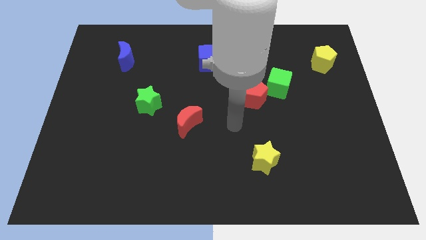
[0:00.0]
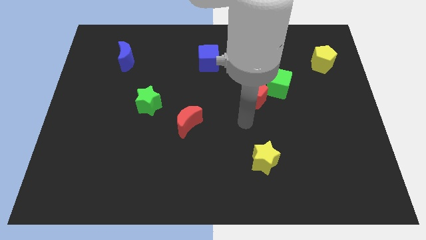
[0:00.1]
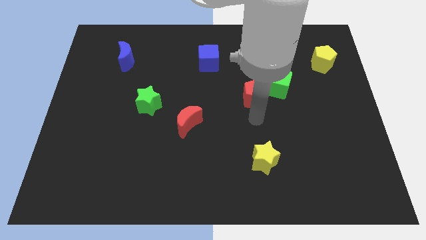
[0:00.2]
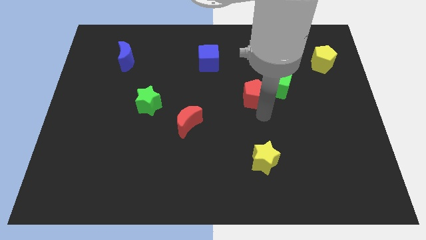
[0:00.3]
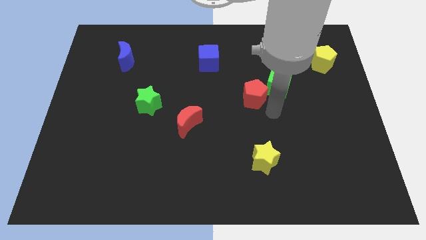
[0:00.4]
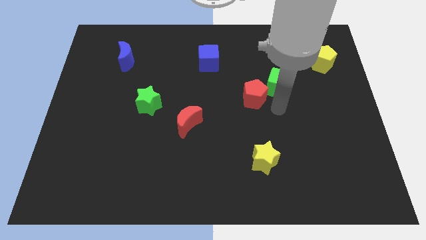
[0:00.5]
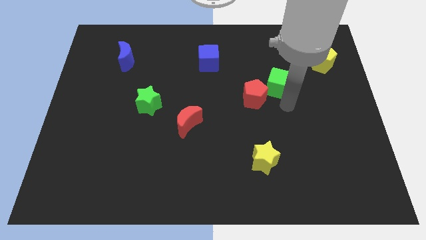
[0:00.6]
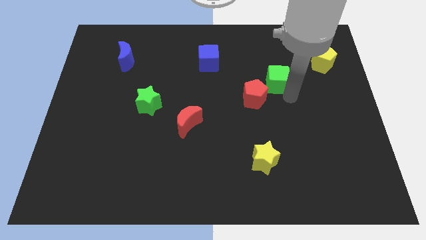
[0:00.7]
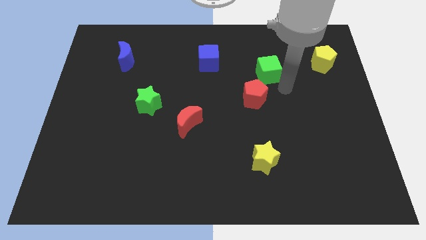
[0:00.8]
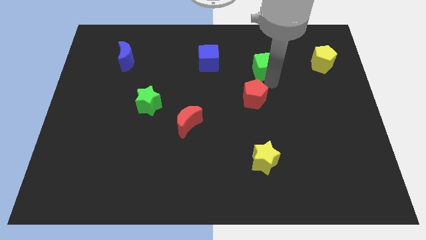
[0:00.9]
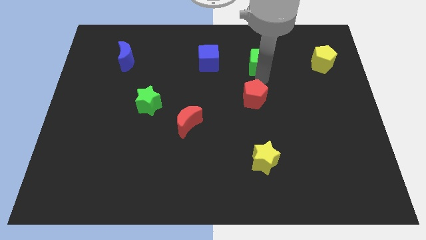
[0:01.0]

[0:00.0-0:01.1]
pull the red pentagon apart from the green cube

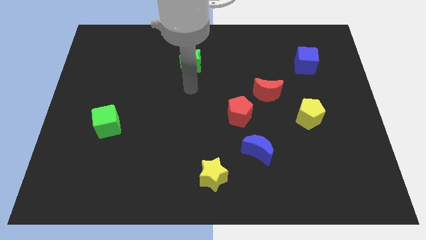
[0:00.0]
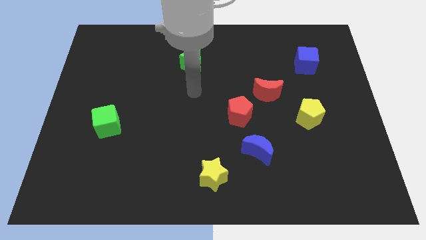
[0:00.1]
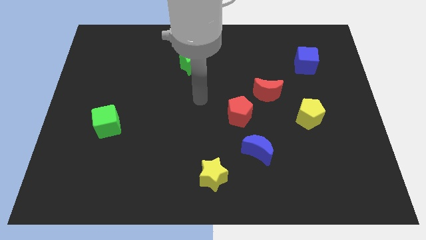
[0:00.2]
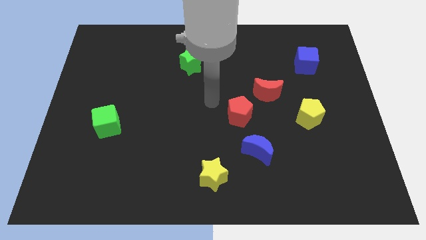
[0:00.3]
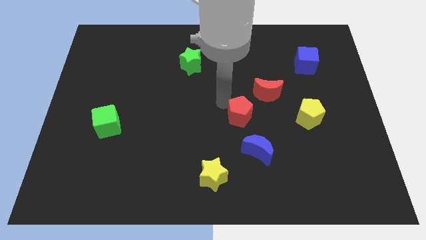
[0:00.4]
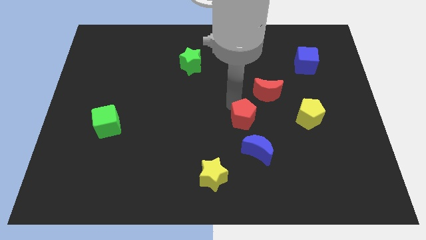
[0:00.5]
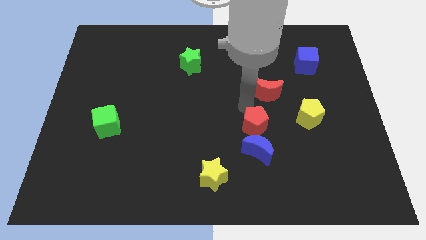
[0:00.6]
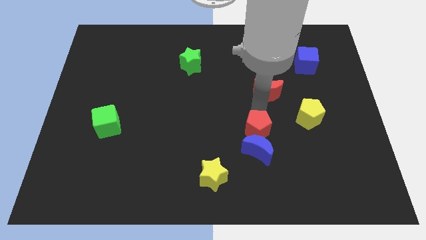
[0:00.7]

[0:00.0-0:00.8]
pull the red moon apart from the red pentagon

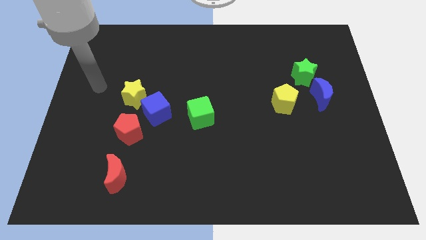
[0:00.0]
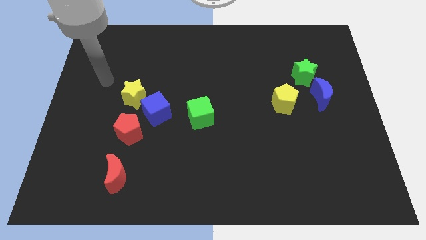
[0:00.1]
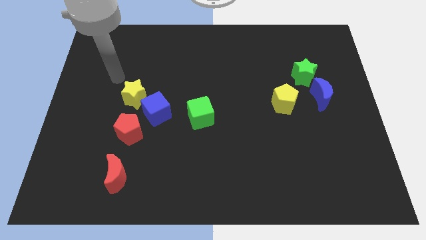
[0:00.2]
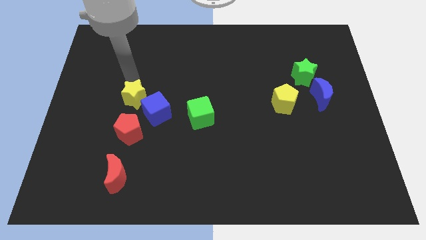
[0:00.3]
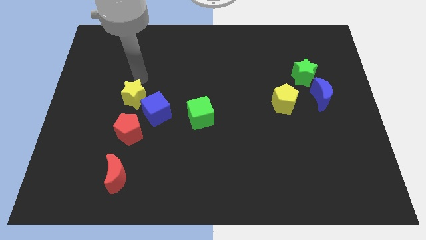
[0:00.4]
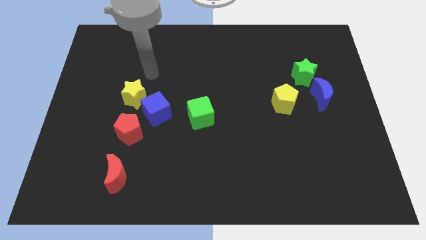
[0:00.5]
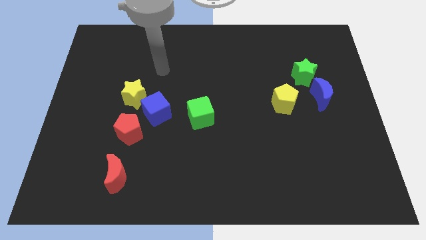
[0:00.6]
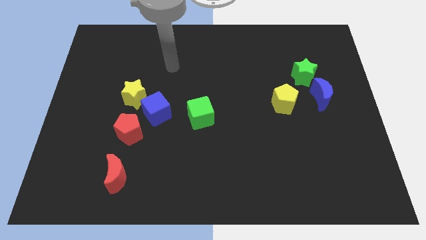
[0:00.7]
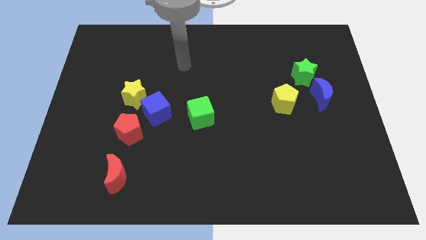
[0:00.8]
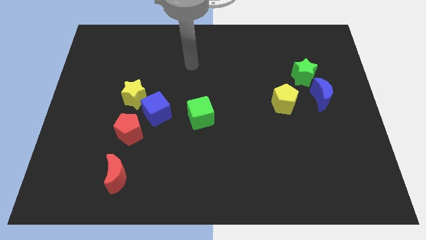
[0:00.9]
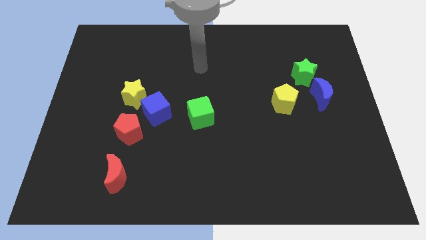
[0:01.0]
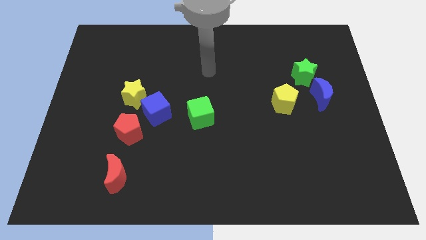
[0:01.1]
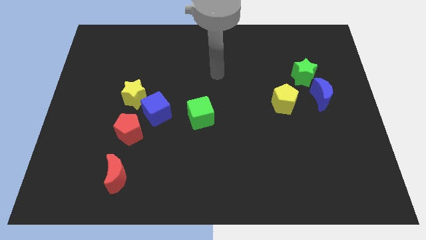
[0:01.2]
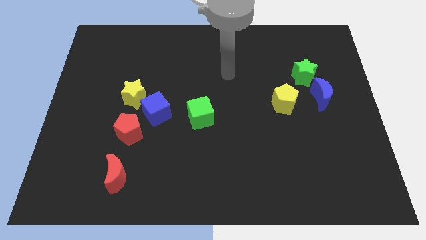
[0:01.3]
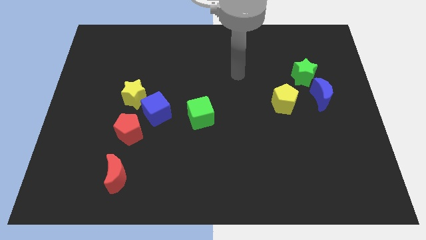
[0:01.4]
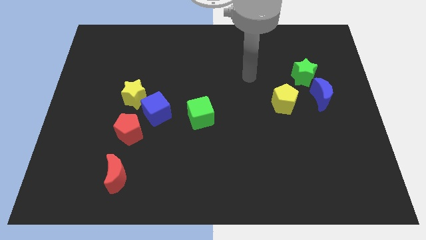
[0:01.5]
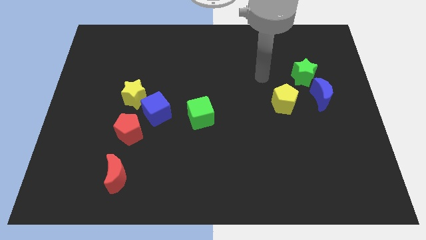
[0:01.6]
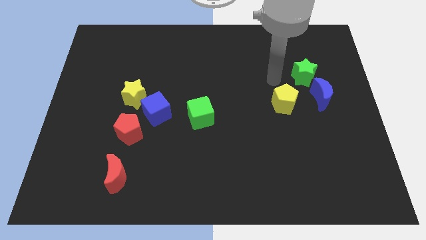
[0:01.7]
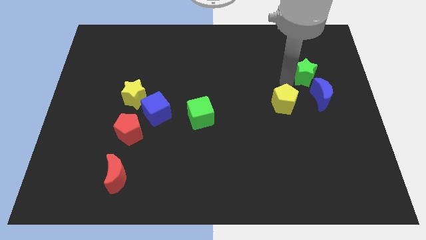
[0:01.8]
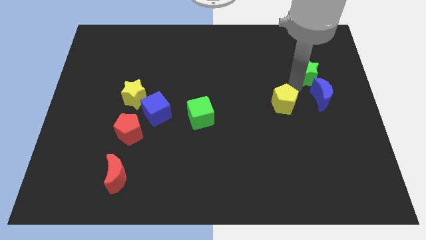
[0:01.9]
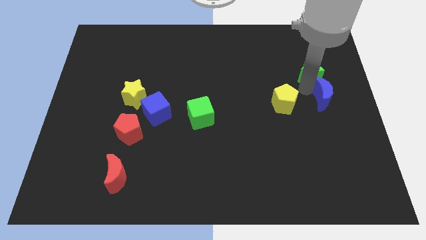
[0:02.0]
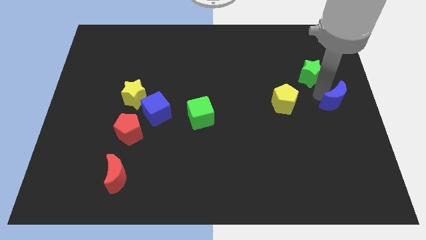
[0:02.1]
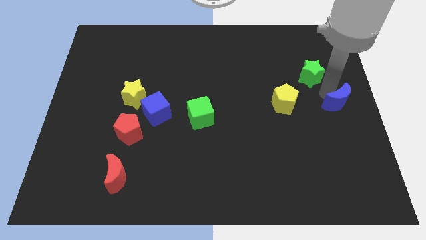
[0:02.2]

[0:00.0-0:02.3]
separate the green star from the blue moon

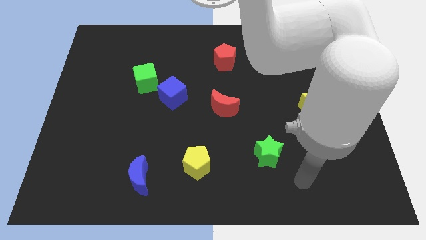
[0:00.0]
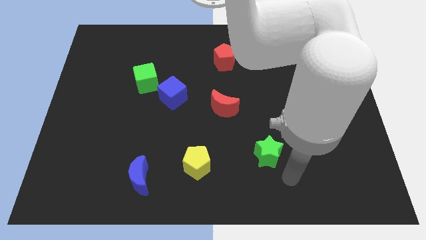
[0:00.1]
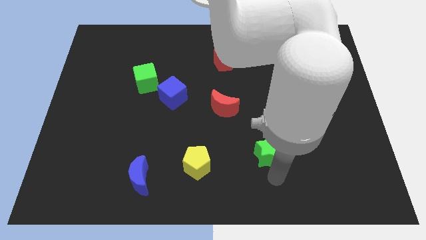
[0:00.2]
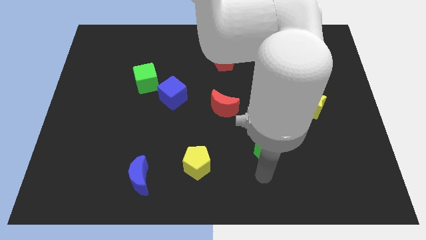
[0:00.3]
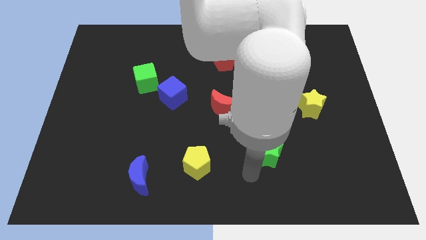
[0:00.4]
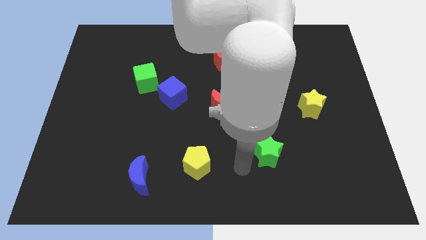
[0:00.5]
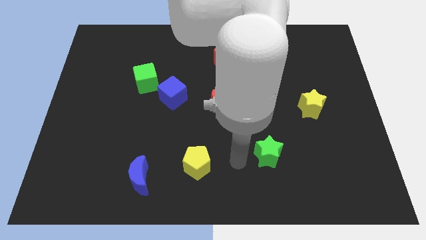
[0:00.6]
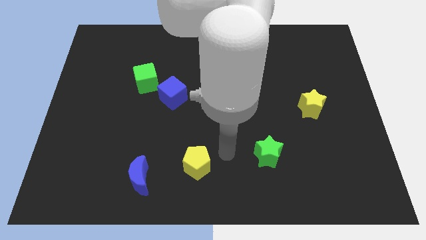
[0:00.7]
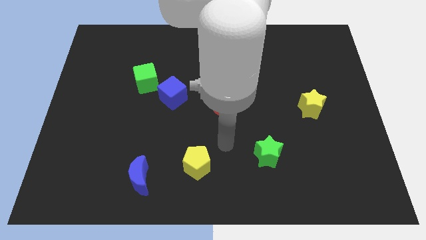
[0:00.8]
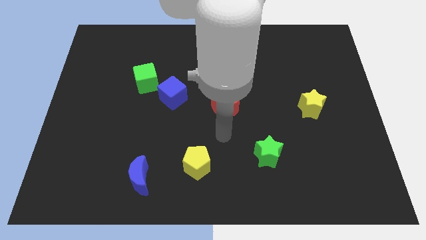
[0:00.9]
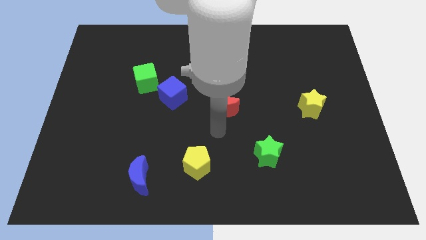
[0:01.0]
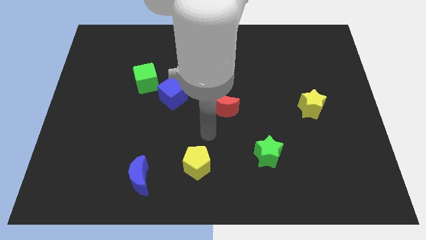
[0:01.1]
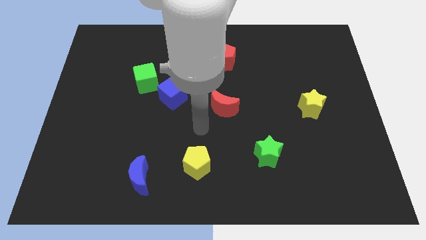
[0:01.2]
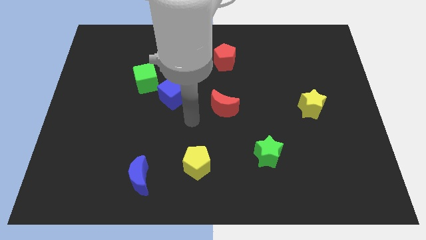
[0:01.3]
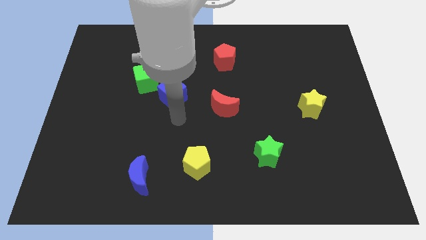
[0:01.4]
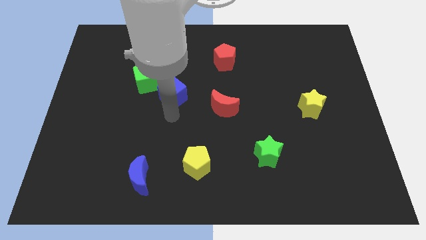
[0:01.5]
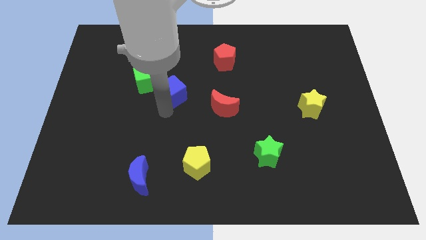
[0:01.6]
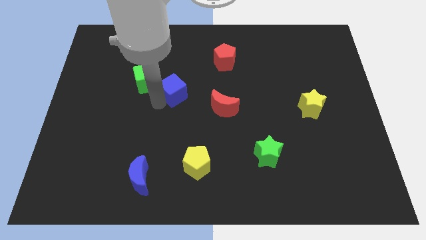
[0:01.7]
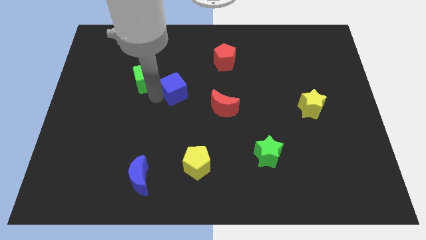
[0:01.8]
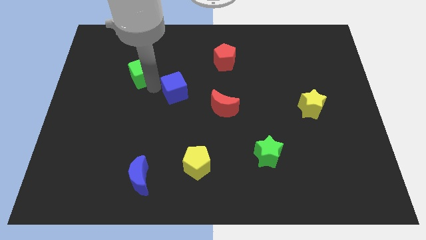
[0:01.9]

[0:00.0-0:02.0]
pull the blue cube apart from the green cube

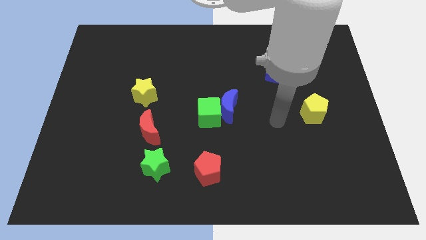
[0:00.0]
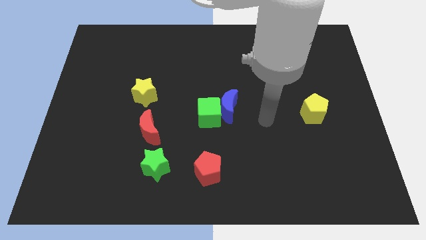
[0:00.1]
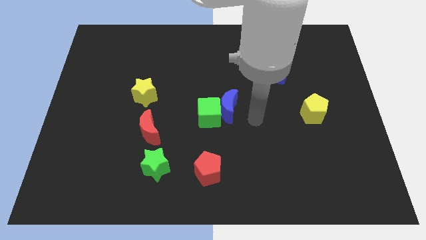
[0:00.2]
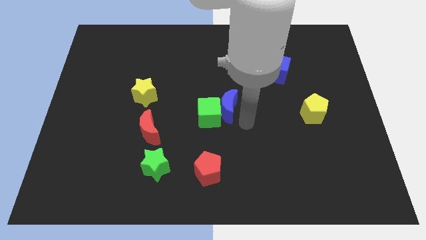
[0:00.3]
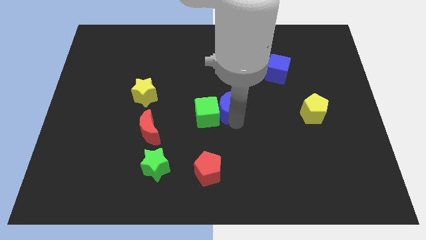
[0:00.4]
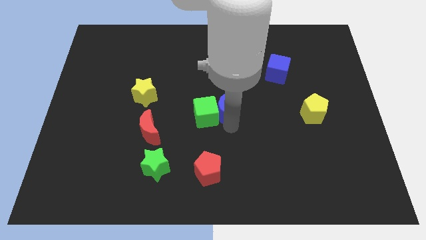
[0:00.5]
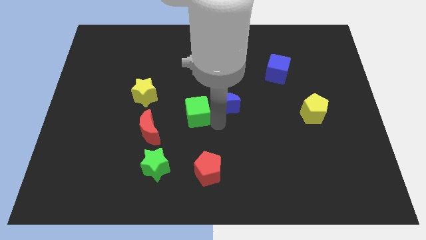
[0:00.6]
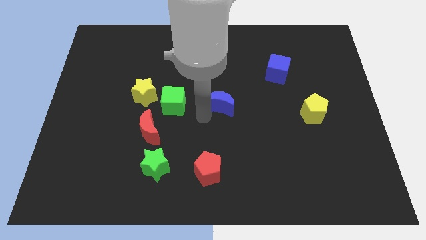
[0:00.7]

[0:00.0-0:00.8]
separate the blue moon from the green cube

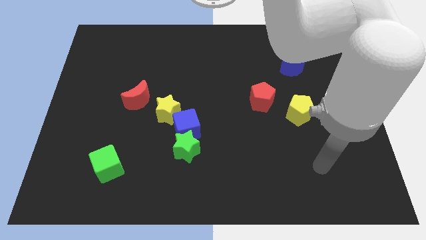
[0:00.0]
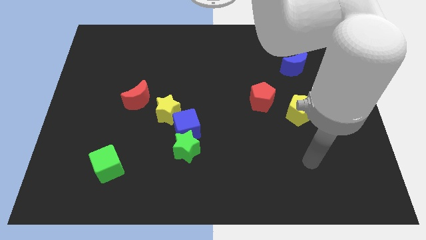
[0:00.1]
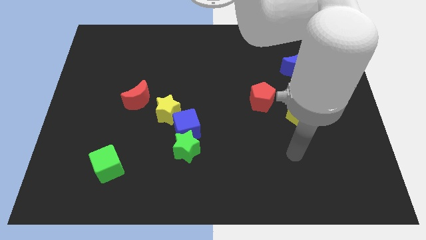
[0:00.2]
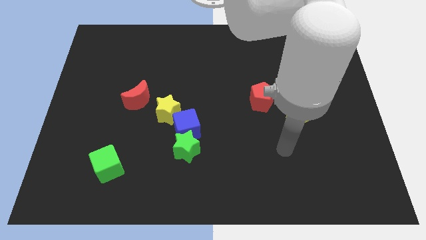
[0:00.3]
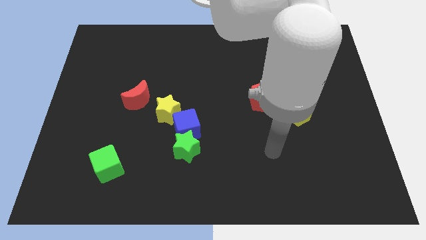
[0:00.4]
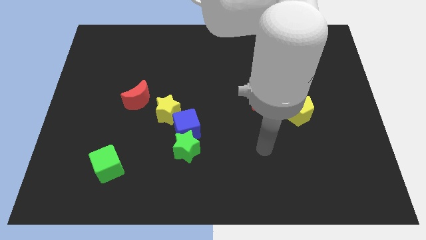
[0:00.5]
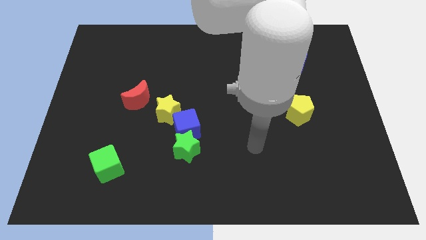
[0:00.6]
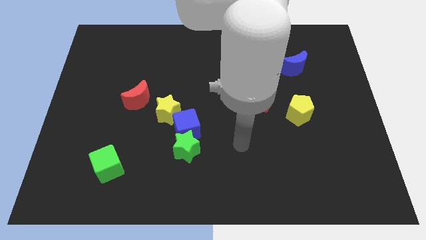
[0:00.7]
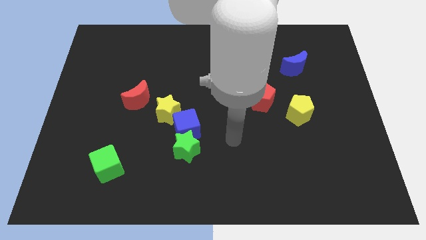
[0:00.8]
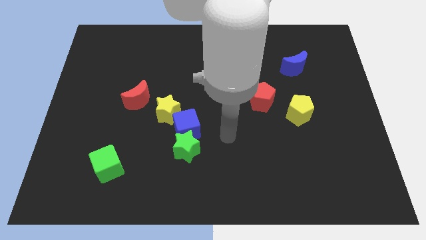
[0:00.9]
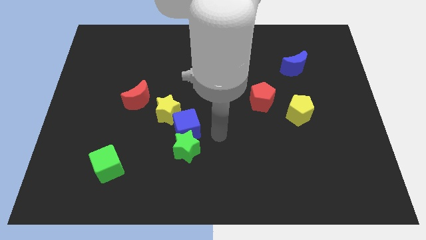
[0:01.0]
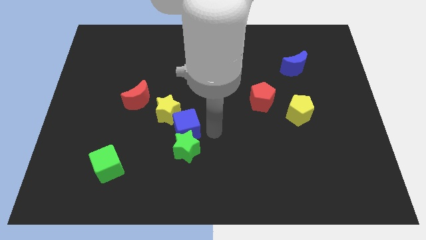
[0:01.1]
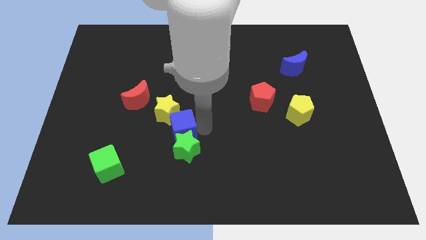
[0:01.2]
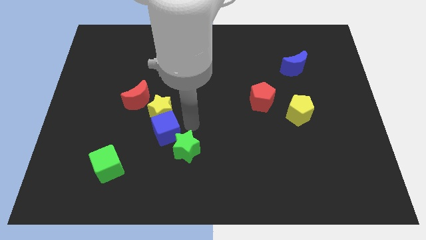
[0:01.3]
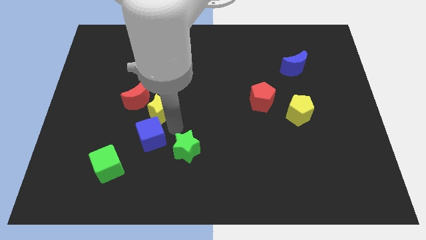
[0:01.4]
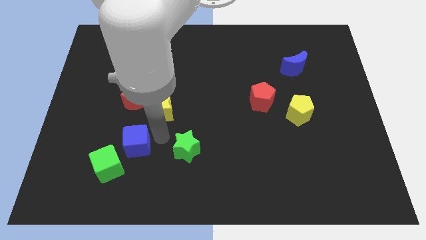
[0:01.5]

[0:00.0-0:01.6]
move the green star away from the blue cube

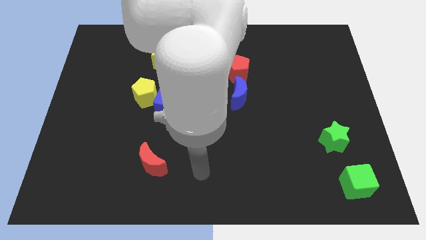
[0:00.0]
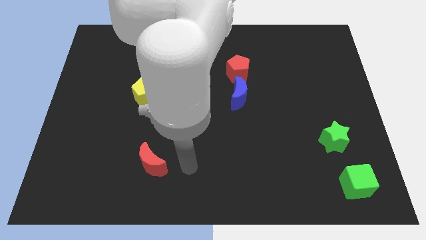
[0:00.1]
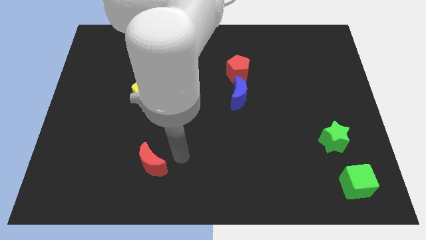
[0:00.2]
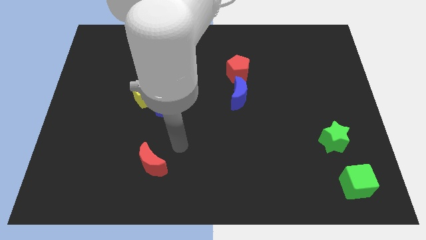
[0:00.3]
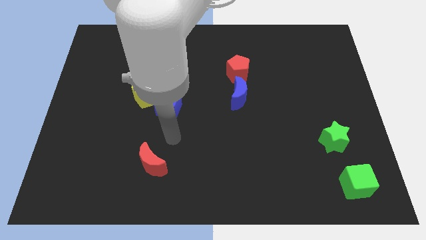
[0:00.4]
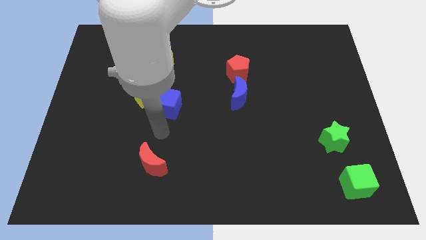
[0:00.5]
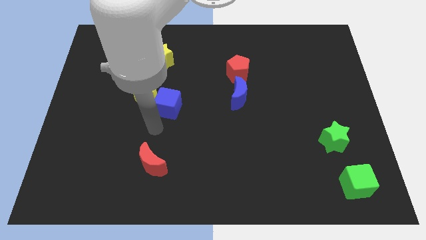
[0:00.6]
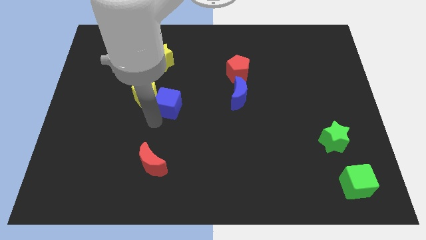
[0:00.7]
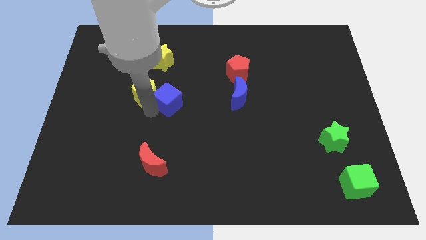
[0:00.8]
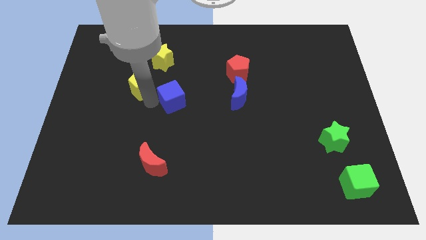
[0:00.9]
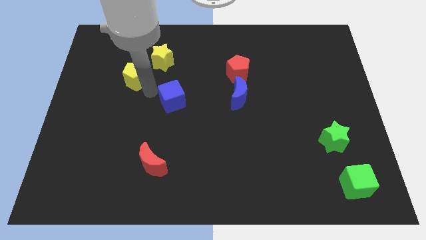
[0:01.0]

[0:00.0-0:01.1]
move the blue cube away from the yellow pentagon
